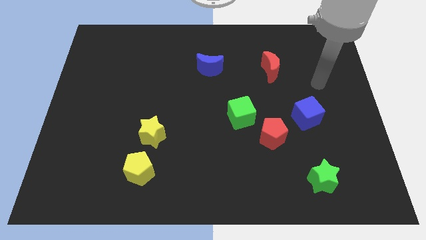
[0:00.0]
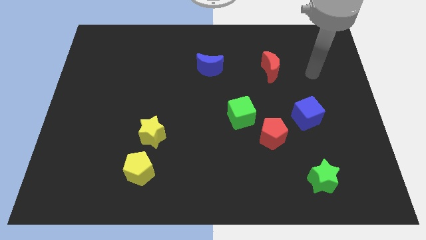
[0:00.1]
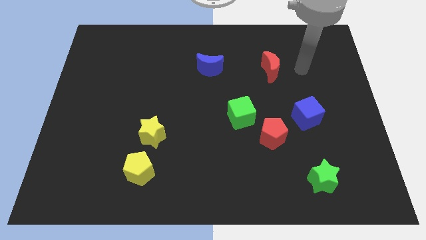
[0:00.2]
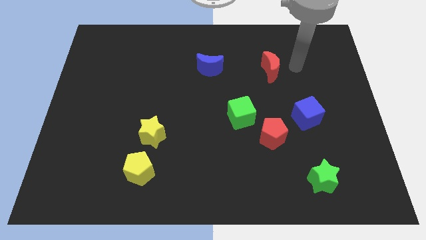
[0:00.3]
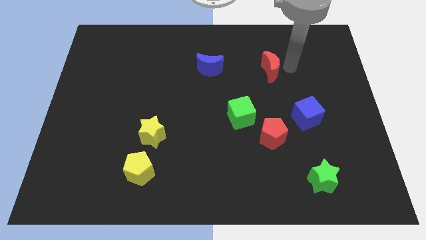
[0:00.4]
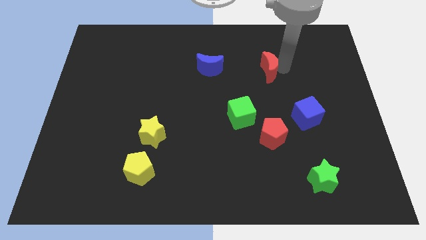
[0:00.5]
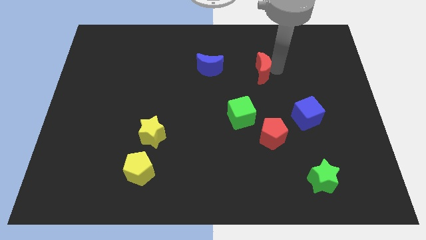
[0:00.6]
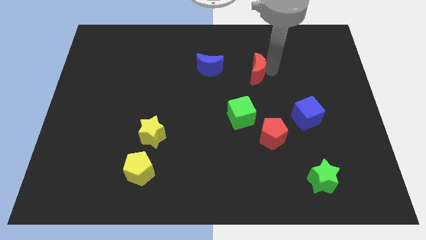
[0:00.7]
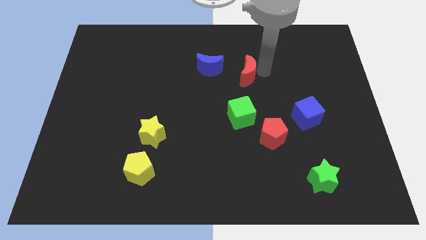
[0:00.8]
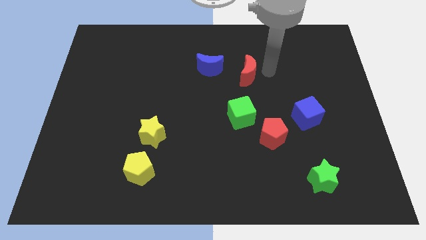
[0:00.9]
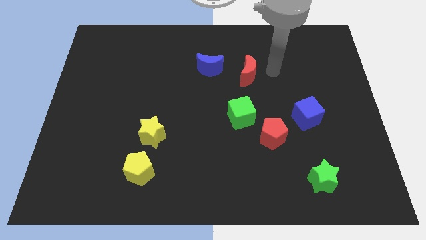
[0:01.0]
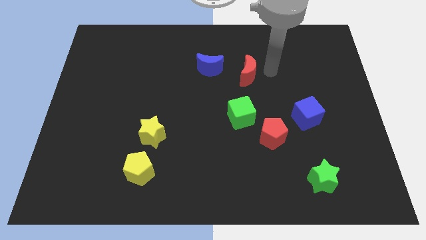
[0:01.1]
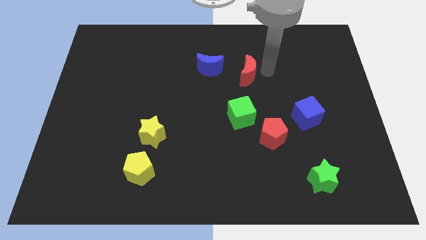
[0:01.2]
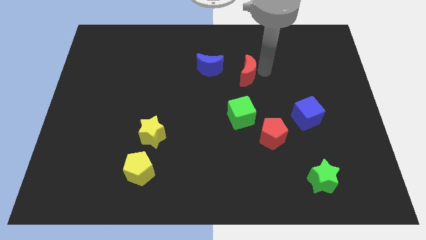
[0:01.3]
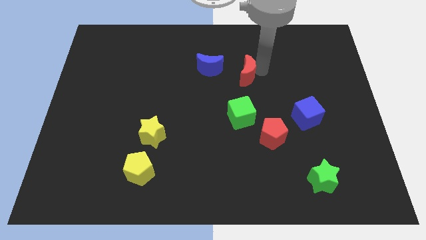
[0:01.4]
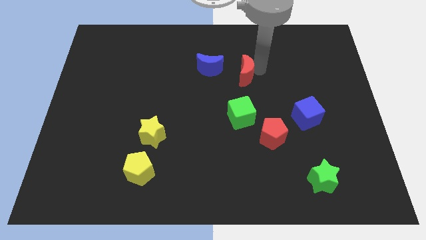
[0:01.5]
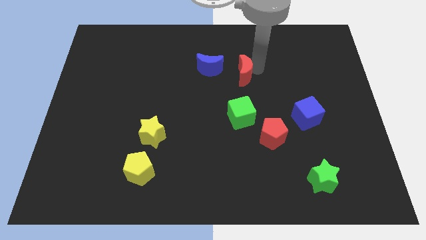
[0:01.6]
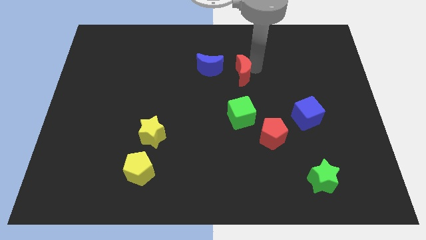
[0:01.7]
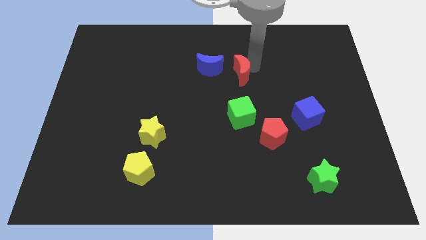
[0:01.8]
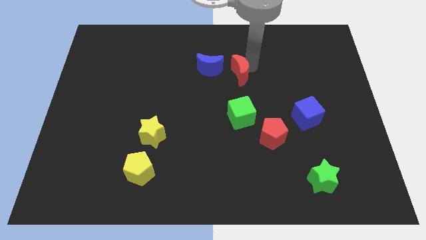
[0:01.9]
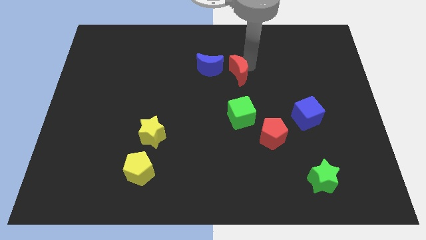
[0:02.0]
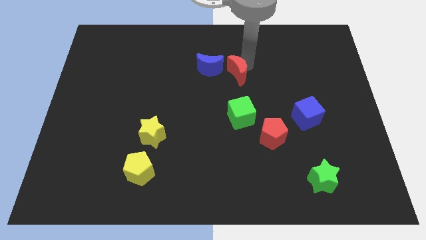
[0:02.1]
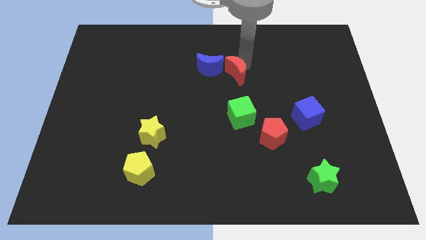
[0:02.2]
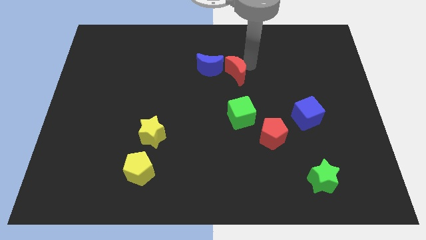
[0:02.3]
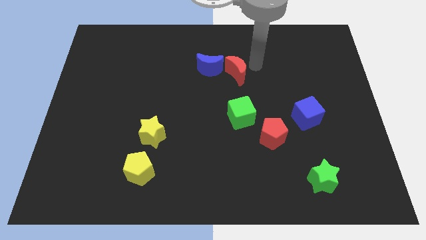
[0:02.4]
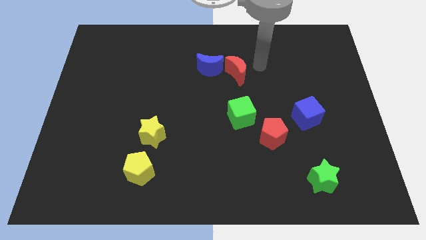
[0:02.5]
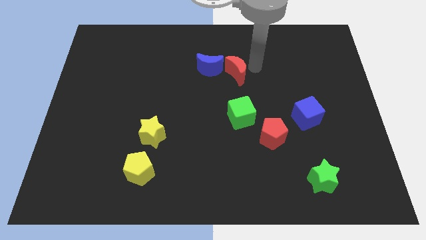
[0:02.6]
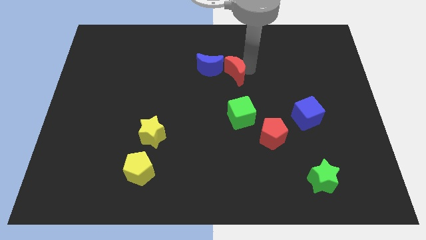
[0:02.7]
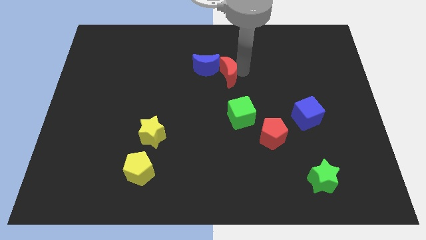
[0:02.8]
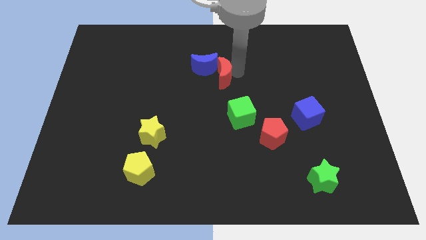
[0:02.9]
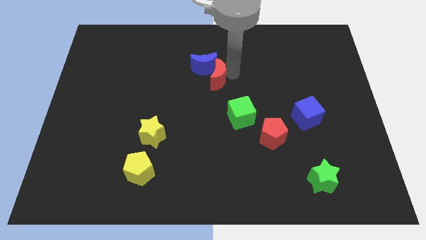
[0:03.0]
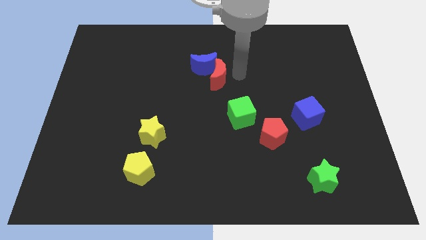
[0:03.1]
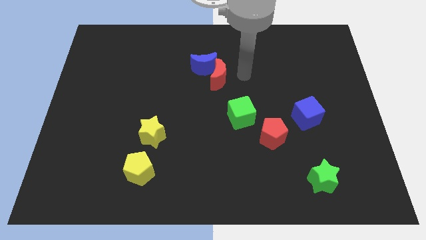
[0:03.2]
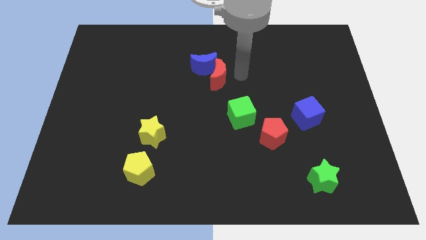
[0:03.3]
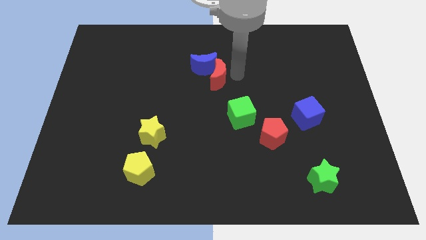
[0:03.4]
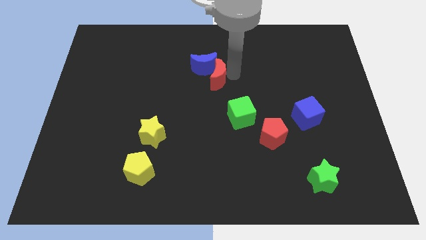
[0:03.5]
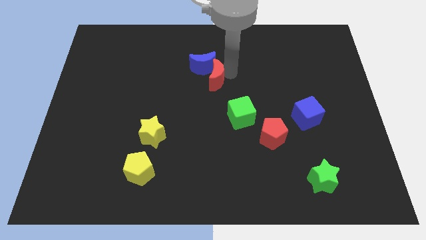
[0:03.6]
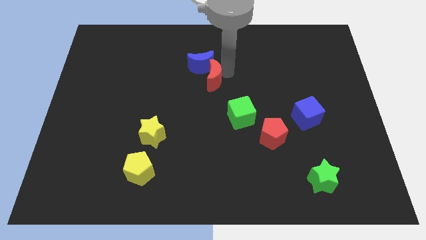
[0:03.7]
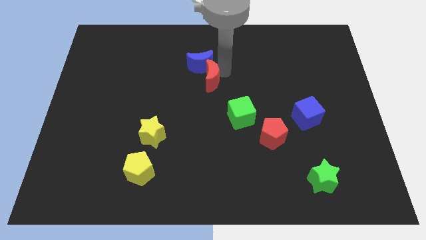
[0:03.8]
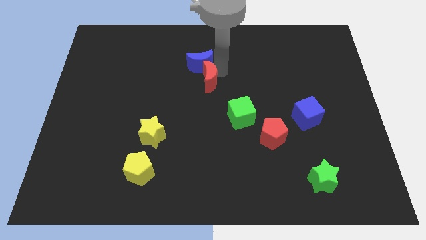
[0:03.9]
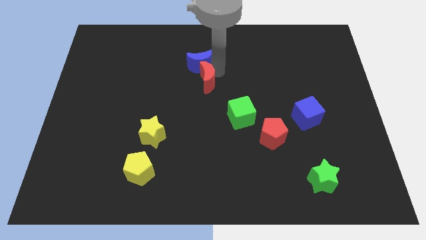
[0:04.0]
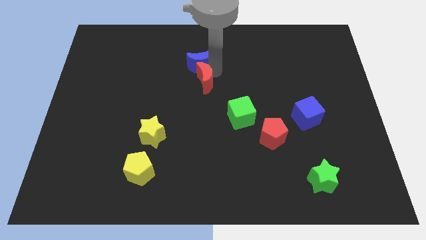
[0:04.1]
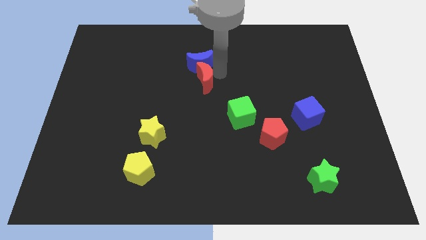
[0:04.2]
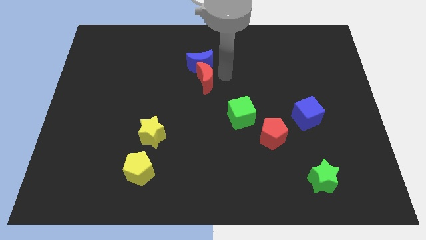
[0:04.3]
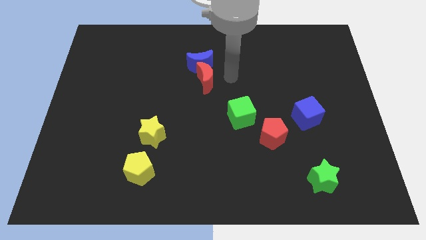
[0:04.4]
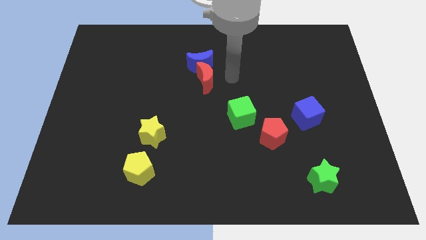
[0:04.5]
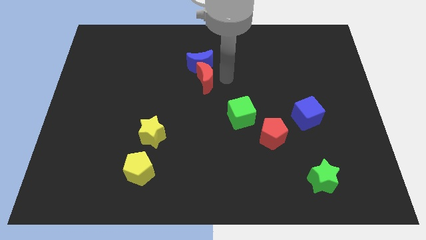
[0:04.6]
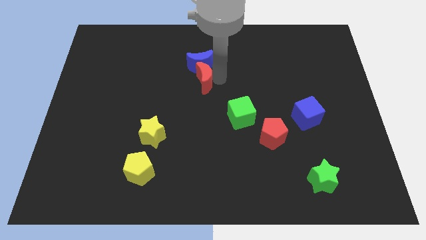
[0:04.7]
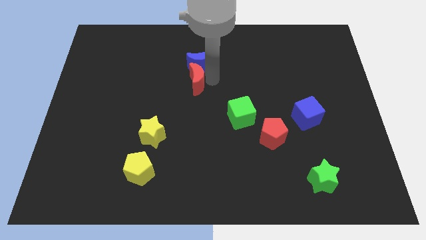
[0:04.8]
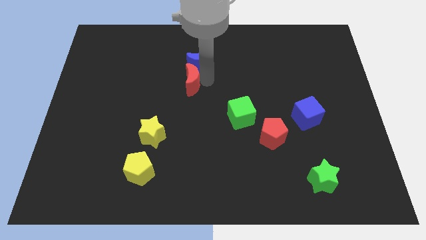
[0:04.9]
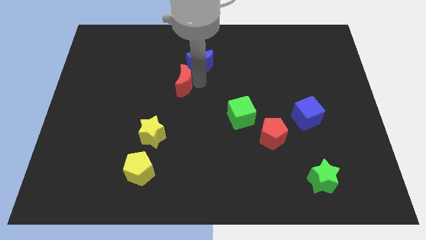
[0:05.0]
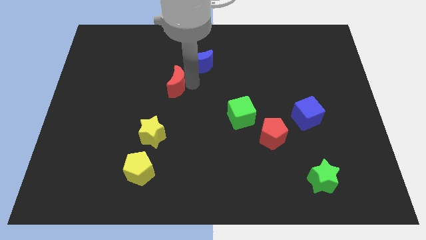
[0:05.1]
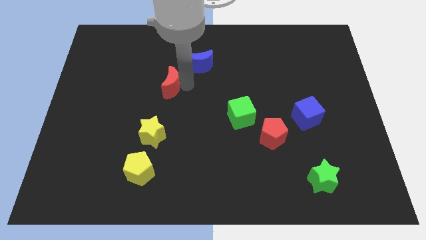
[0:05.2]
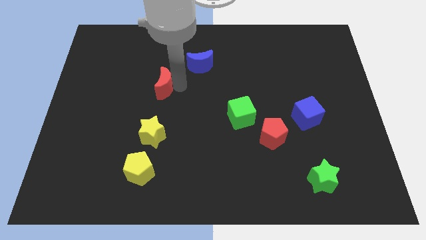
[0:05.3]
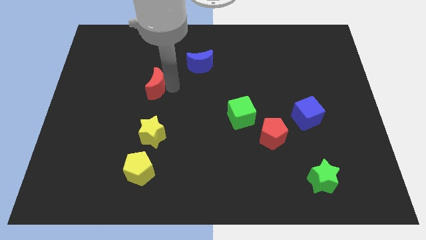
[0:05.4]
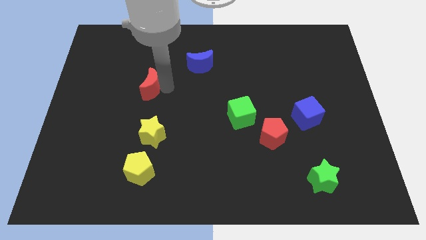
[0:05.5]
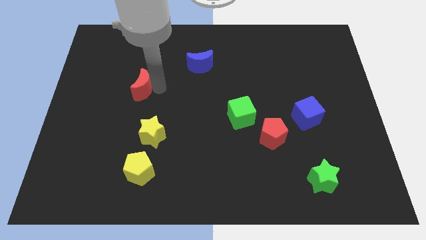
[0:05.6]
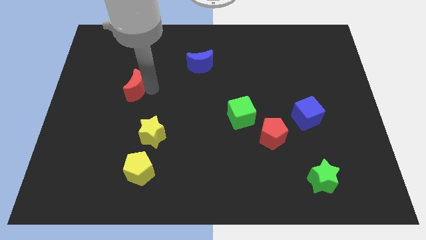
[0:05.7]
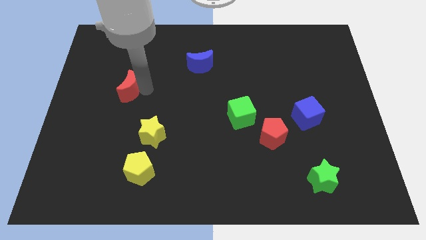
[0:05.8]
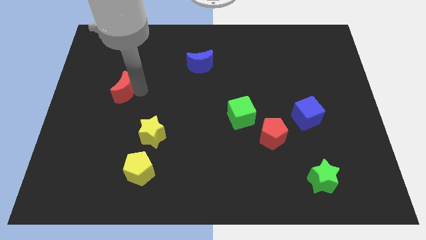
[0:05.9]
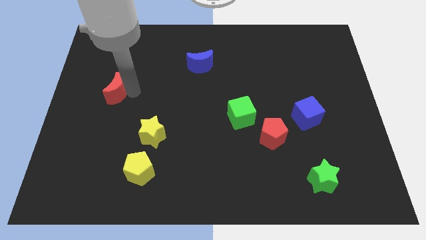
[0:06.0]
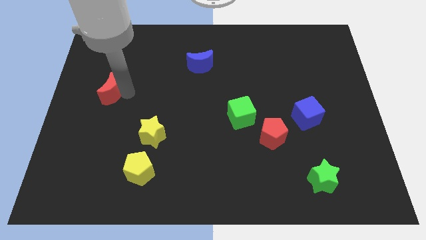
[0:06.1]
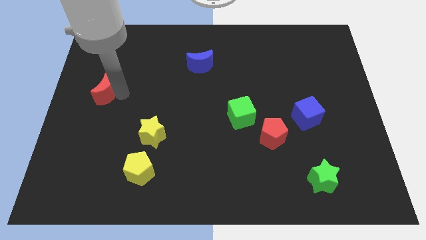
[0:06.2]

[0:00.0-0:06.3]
put the red moon to the center left
